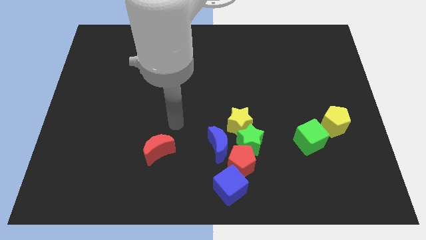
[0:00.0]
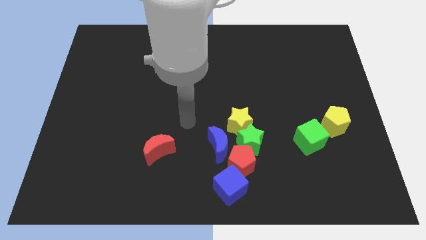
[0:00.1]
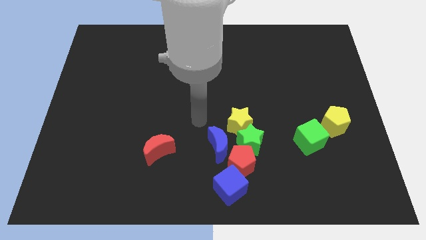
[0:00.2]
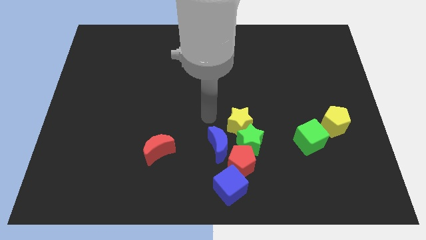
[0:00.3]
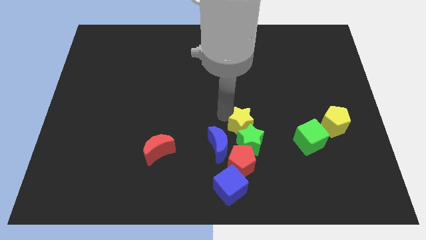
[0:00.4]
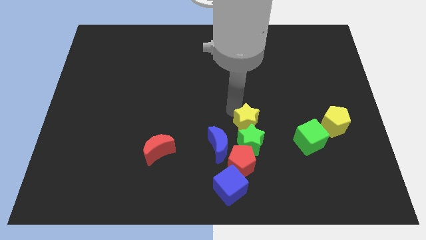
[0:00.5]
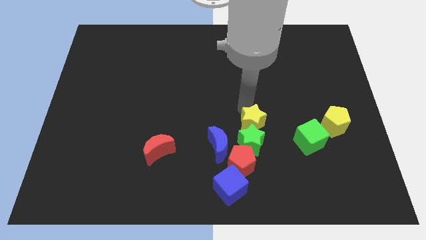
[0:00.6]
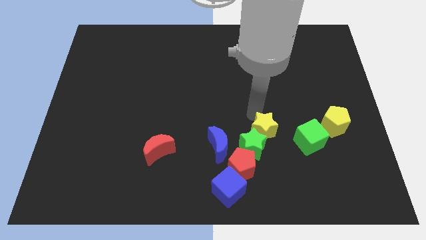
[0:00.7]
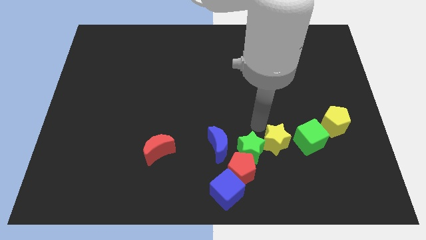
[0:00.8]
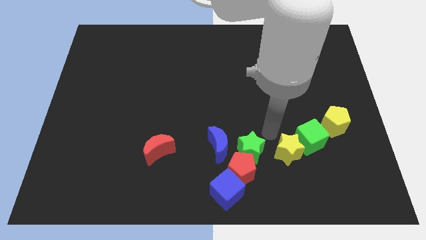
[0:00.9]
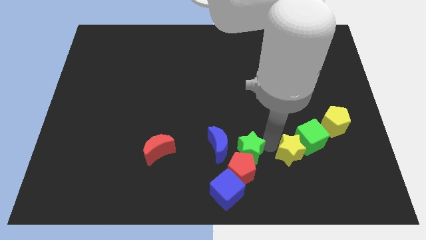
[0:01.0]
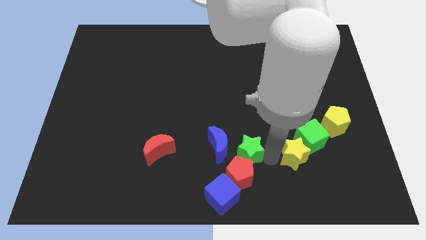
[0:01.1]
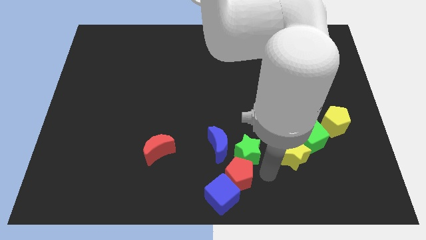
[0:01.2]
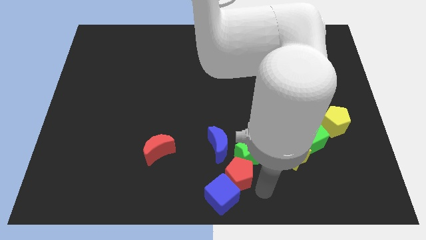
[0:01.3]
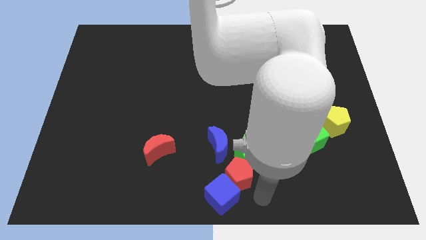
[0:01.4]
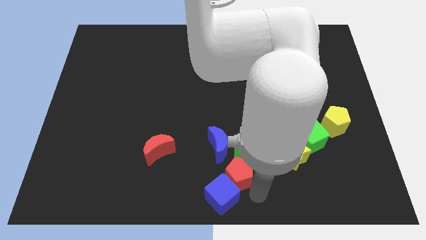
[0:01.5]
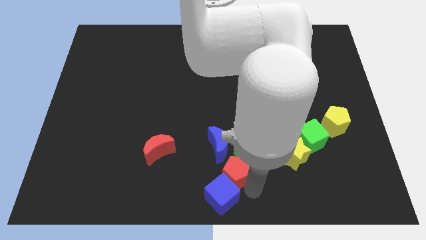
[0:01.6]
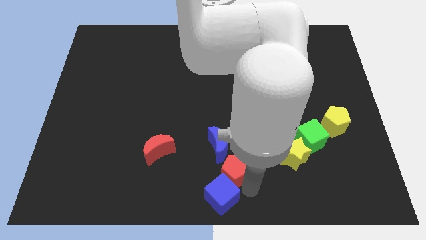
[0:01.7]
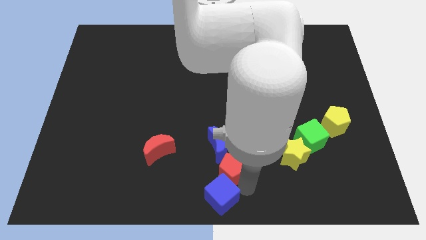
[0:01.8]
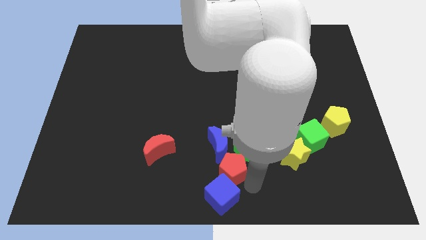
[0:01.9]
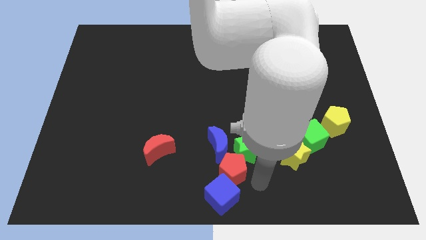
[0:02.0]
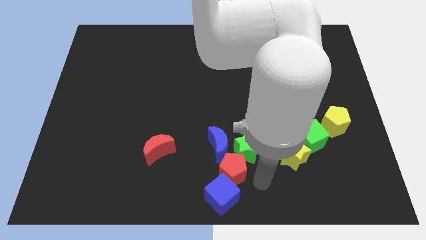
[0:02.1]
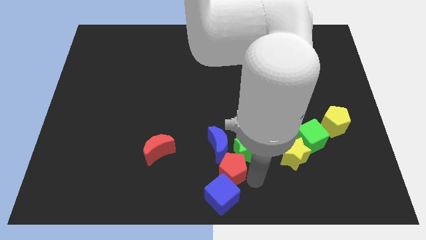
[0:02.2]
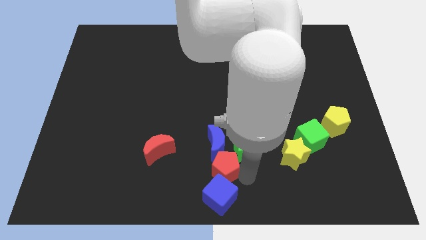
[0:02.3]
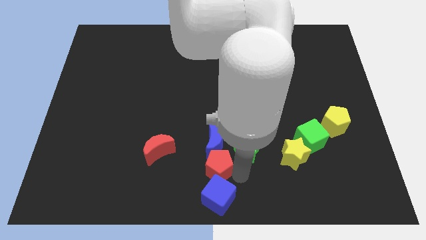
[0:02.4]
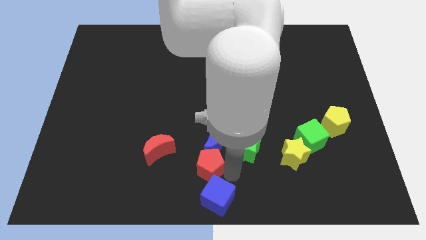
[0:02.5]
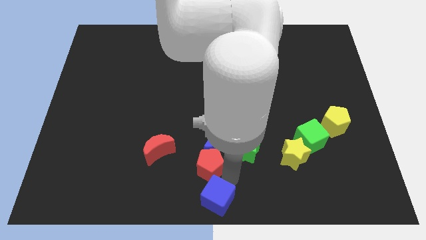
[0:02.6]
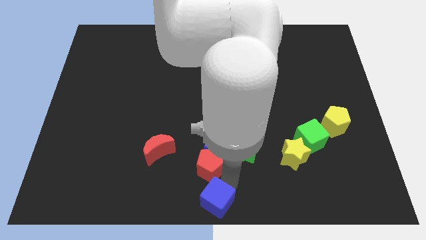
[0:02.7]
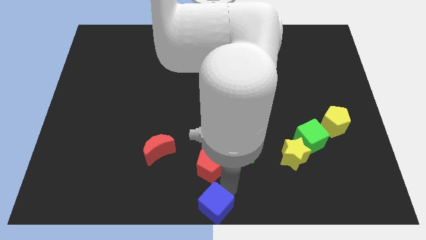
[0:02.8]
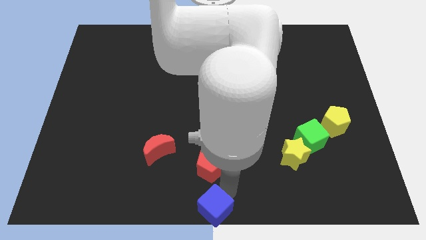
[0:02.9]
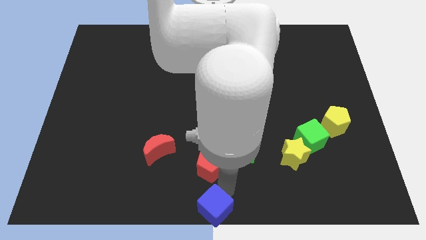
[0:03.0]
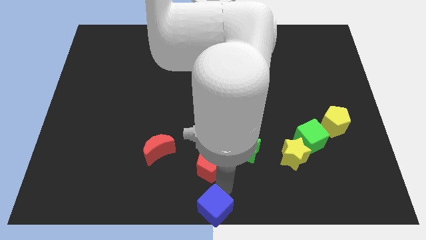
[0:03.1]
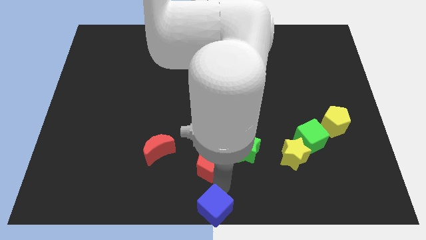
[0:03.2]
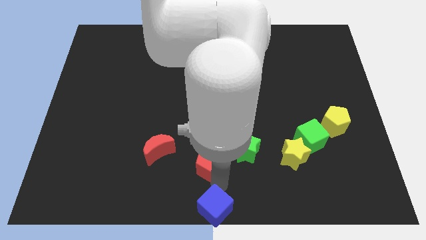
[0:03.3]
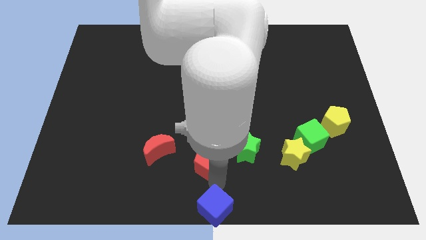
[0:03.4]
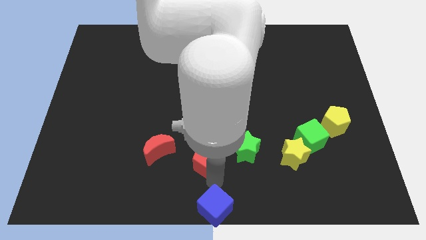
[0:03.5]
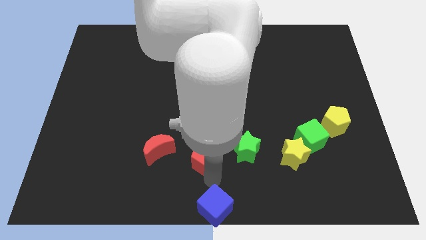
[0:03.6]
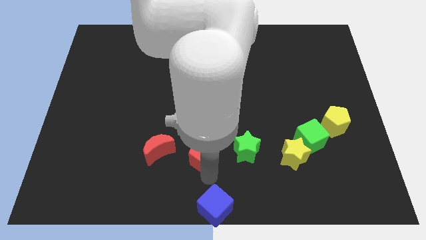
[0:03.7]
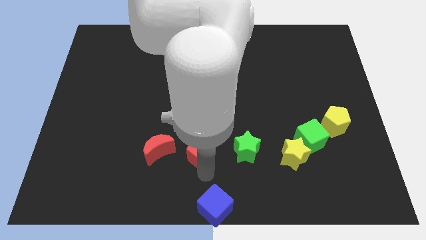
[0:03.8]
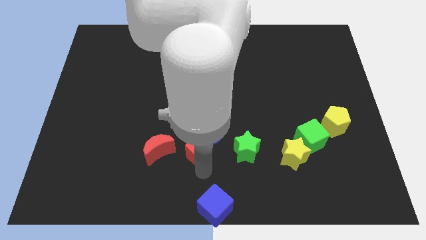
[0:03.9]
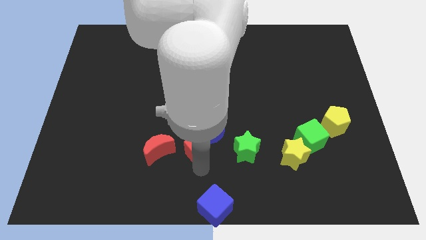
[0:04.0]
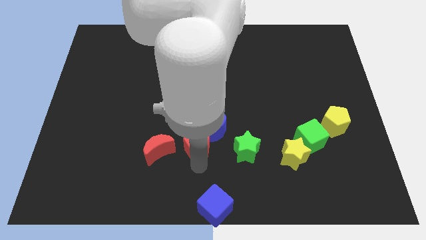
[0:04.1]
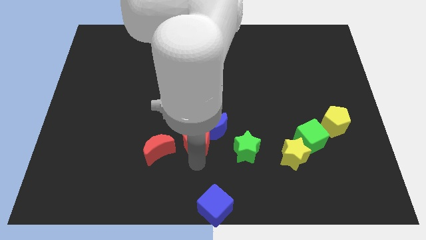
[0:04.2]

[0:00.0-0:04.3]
put the red pentagon to the top right of the red moon

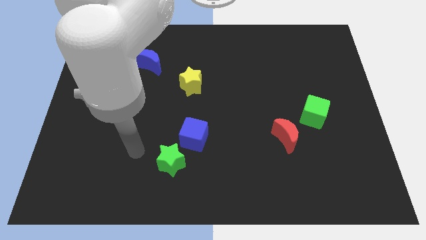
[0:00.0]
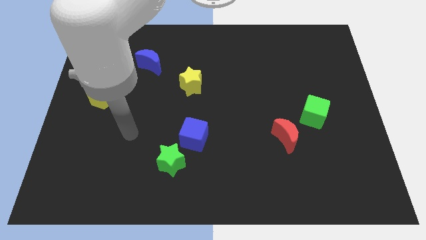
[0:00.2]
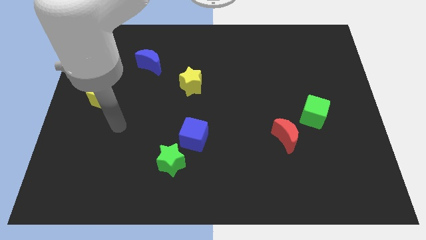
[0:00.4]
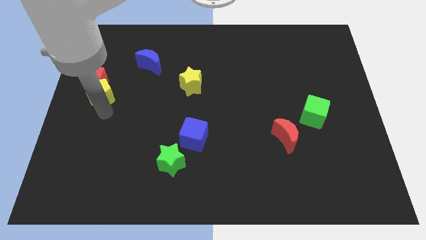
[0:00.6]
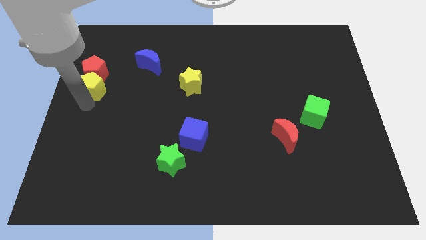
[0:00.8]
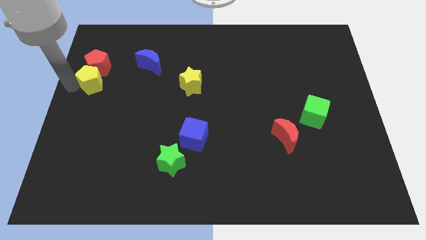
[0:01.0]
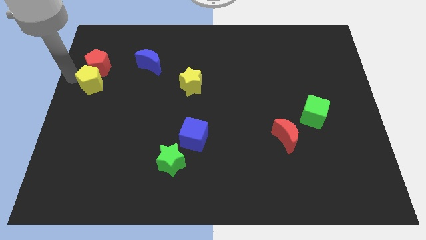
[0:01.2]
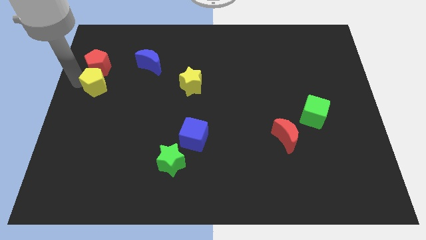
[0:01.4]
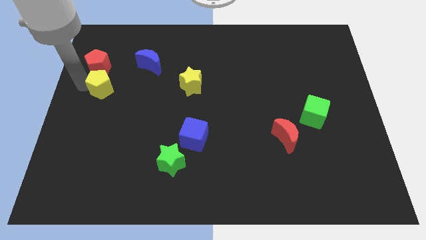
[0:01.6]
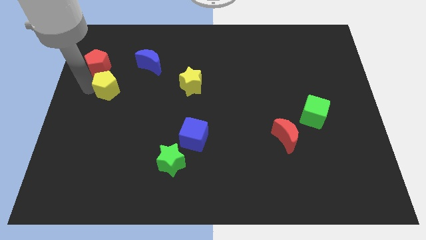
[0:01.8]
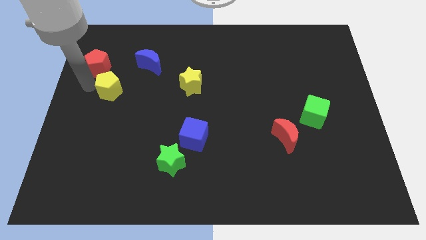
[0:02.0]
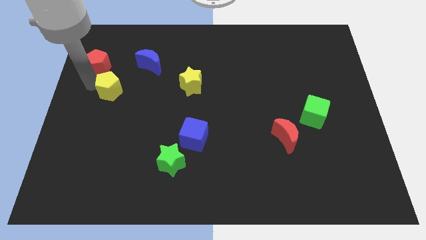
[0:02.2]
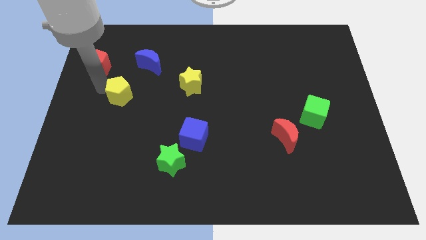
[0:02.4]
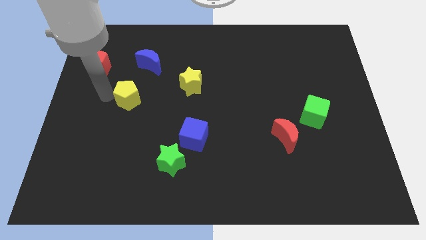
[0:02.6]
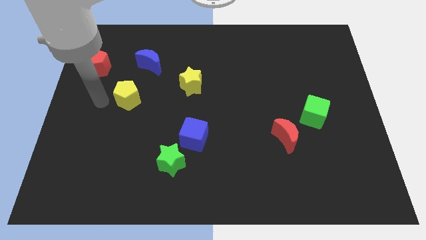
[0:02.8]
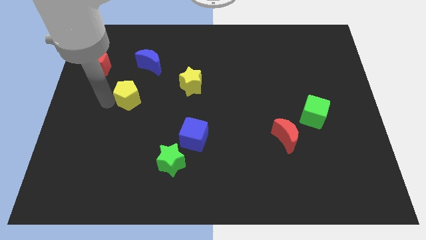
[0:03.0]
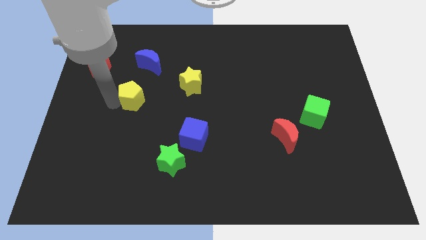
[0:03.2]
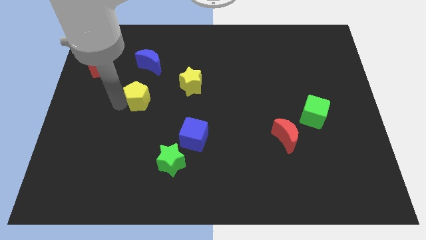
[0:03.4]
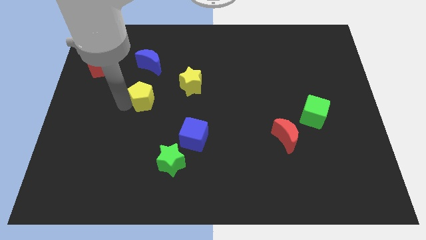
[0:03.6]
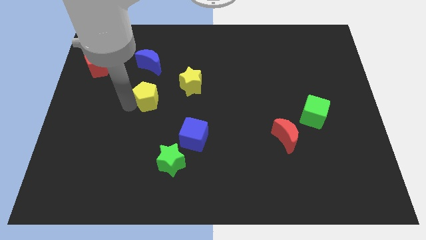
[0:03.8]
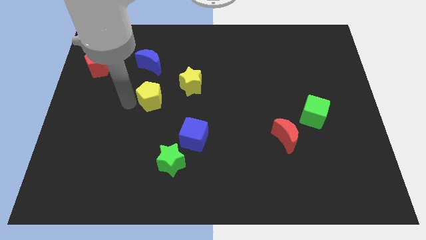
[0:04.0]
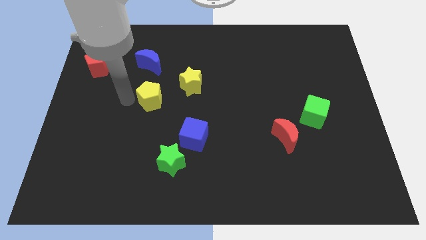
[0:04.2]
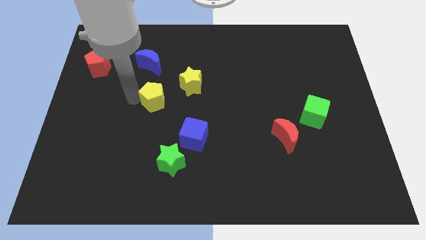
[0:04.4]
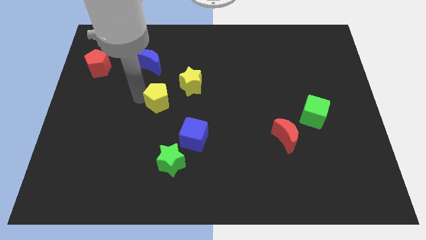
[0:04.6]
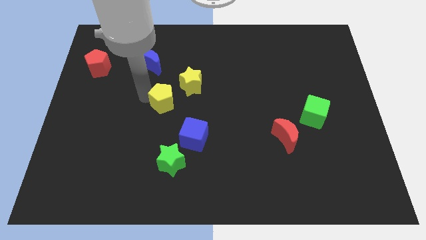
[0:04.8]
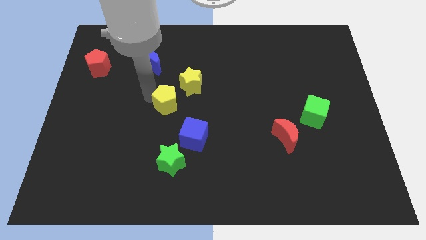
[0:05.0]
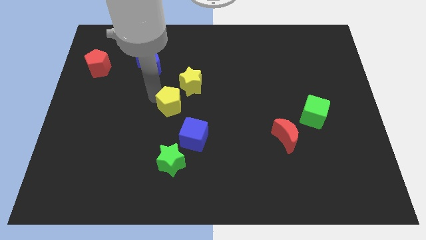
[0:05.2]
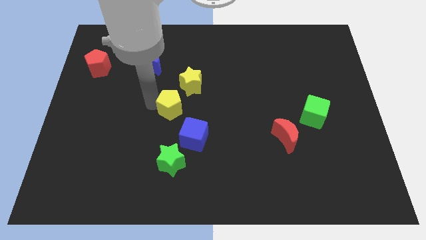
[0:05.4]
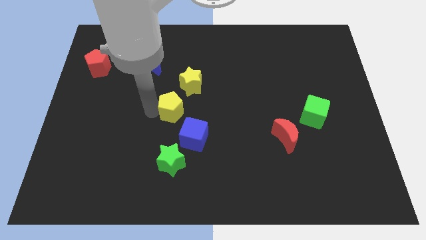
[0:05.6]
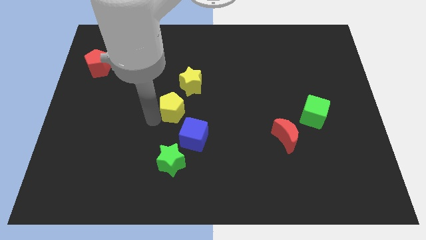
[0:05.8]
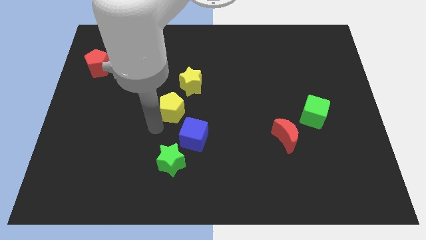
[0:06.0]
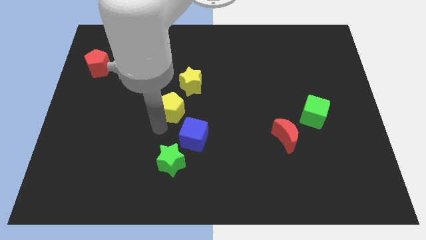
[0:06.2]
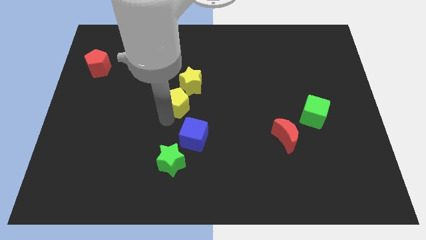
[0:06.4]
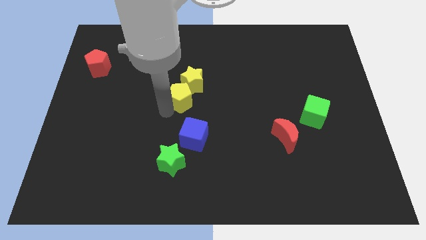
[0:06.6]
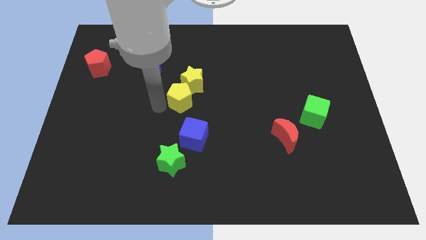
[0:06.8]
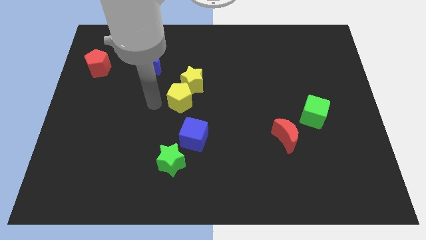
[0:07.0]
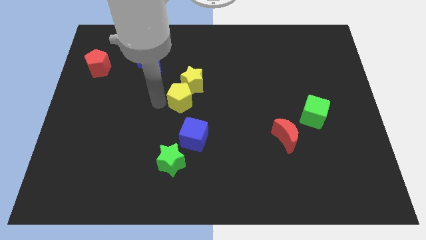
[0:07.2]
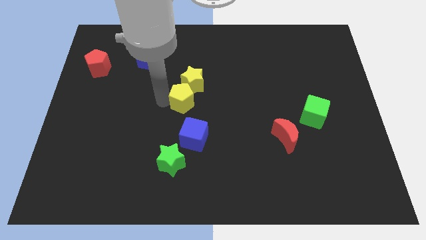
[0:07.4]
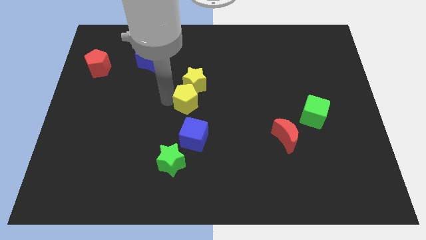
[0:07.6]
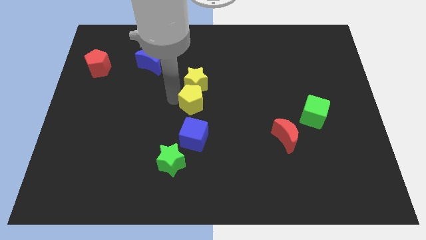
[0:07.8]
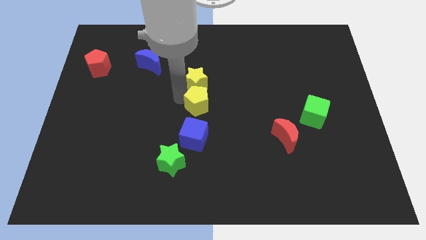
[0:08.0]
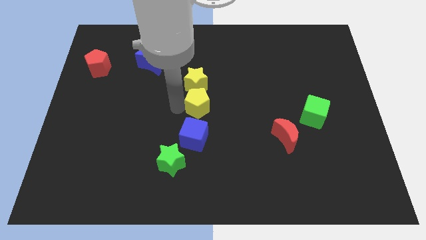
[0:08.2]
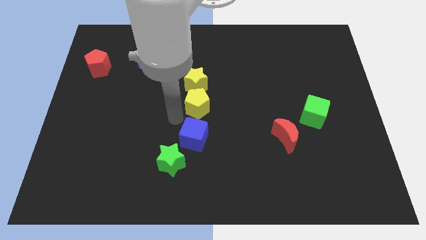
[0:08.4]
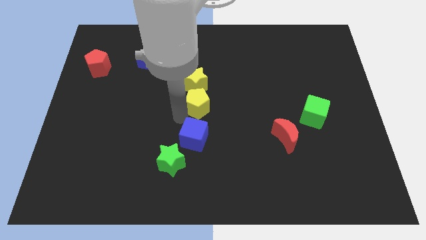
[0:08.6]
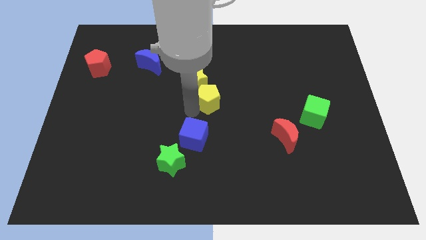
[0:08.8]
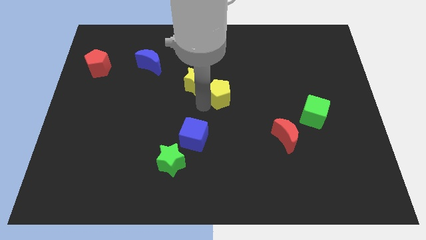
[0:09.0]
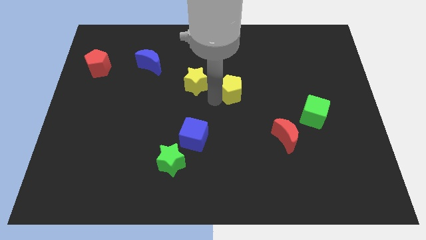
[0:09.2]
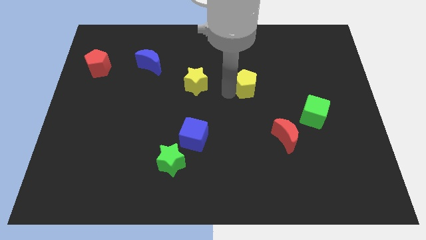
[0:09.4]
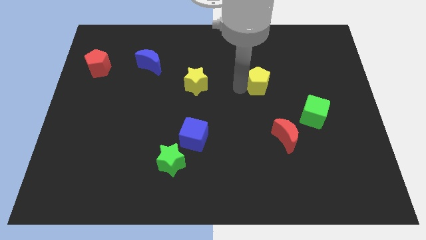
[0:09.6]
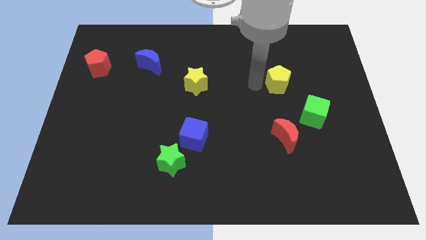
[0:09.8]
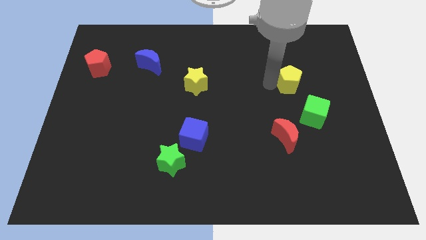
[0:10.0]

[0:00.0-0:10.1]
slide the yellow pentagon above the green cube
